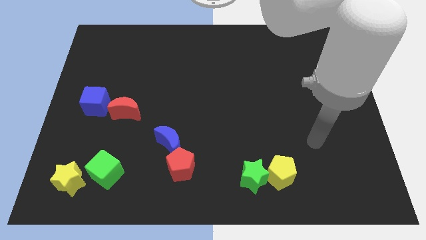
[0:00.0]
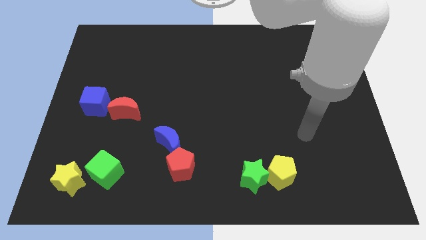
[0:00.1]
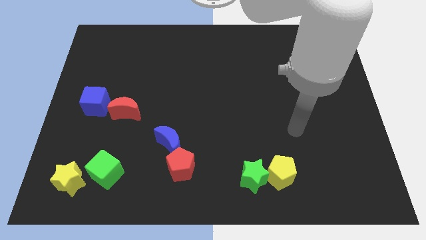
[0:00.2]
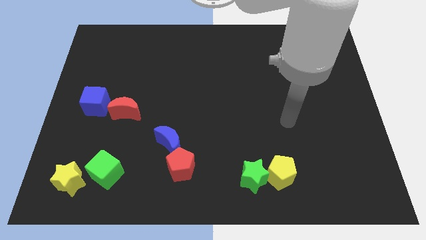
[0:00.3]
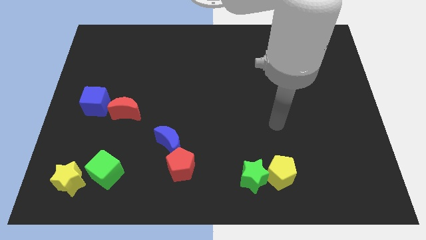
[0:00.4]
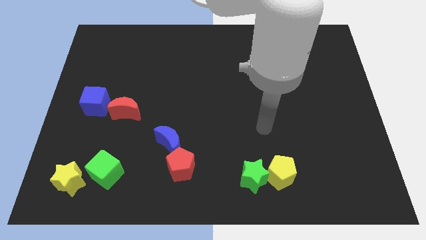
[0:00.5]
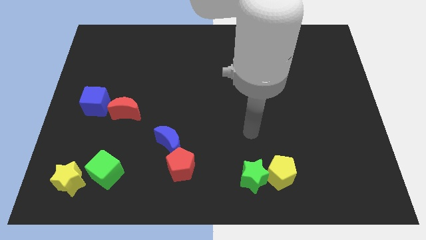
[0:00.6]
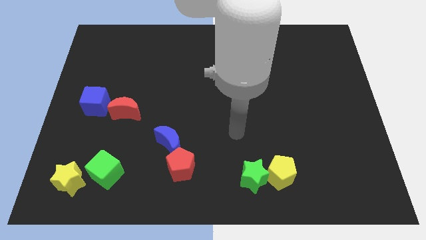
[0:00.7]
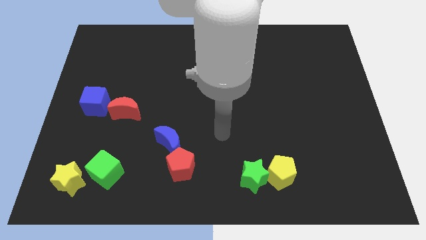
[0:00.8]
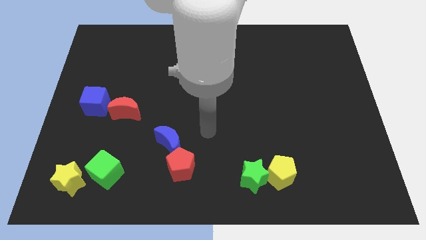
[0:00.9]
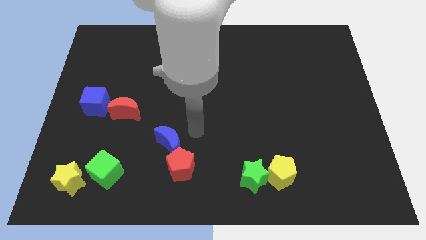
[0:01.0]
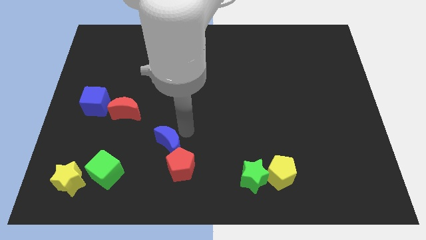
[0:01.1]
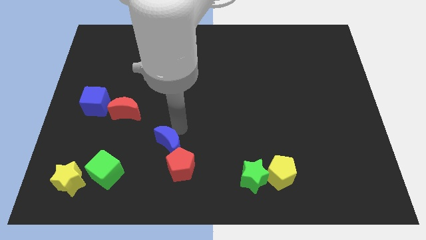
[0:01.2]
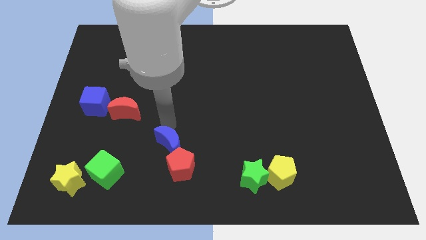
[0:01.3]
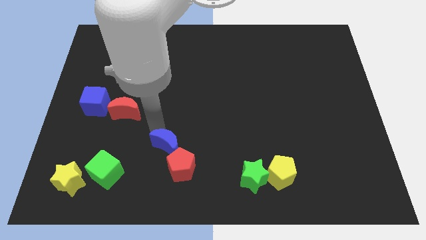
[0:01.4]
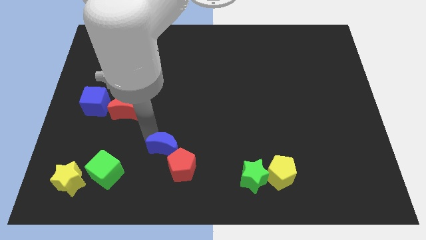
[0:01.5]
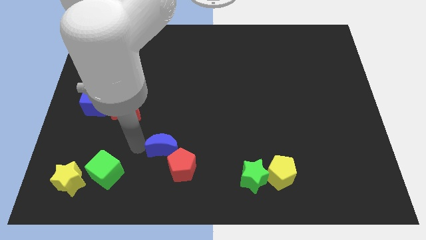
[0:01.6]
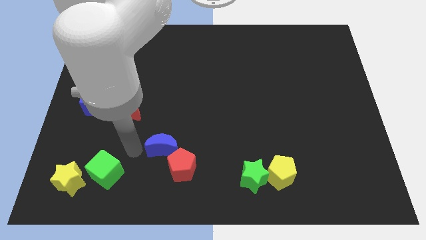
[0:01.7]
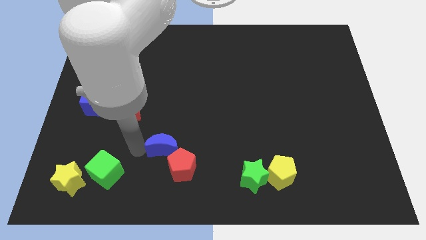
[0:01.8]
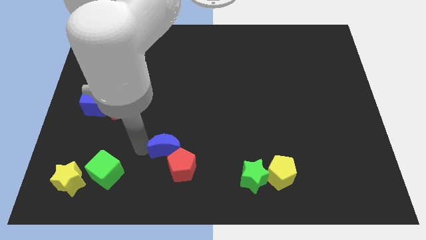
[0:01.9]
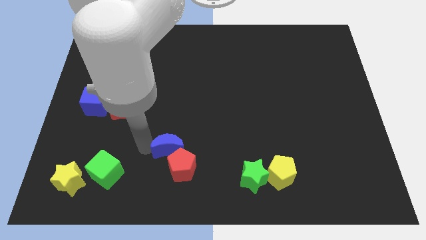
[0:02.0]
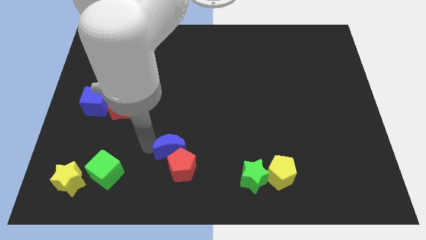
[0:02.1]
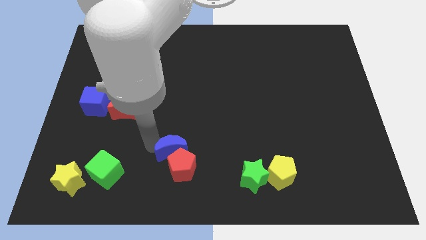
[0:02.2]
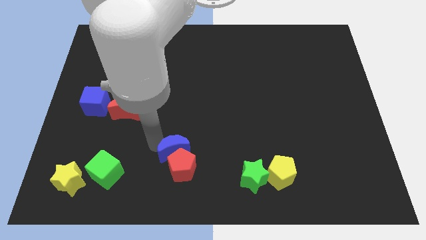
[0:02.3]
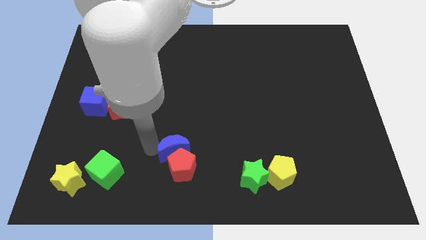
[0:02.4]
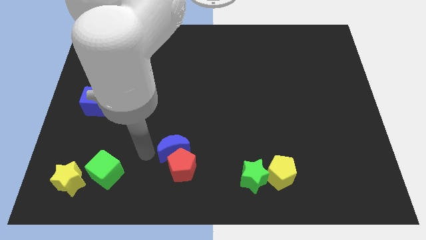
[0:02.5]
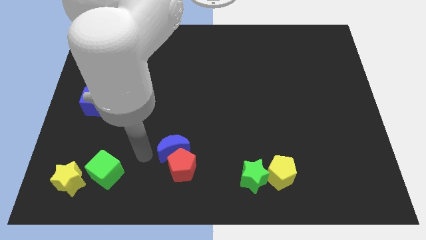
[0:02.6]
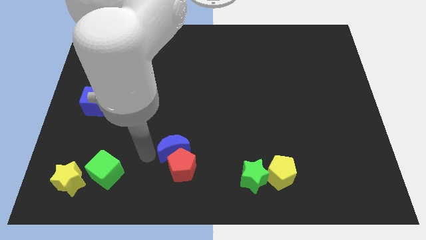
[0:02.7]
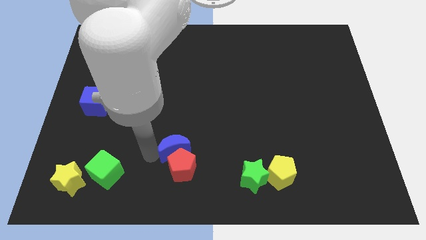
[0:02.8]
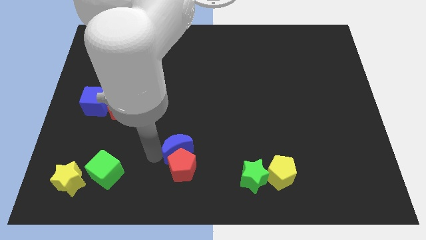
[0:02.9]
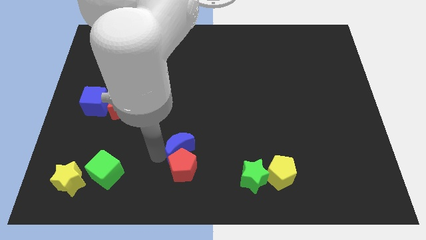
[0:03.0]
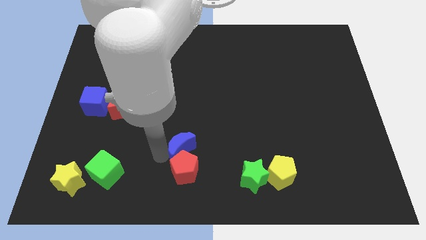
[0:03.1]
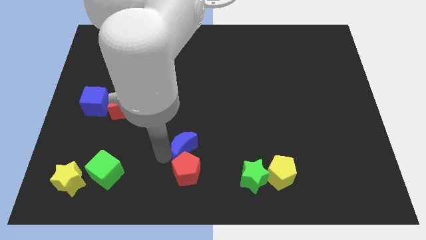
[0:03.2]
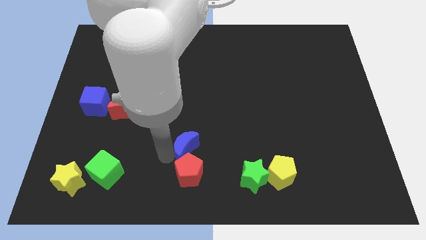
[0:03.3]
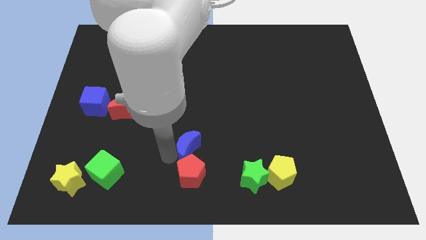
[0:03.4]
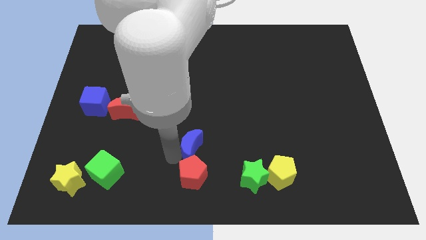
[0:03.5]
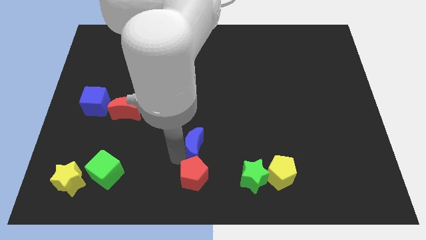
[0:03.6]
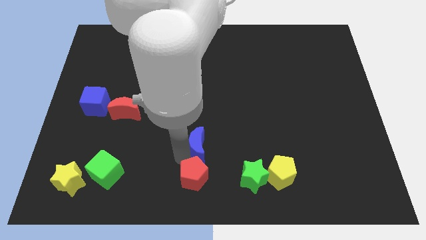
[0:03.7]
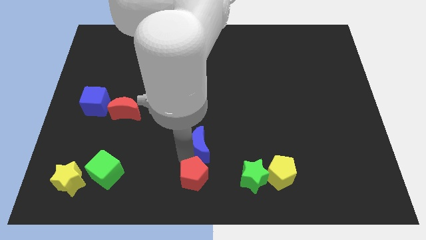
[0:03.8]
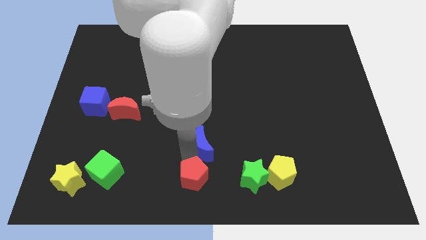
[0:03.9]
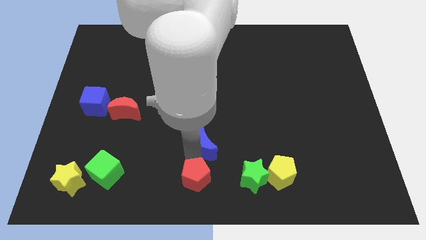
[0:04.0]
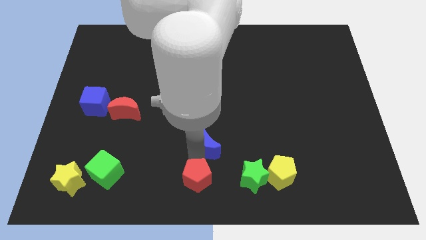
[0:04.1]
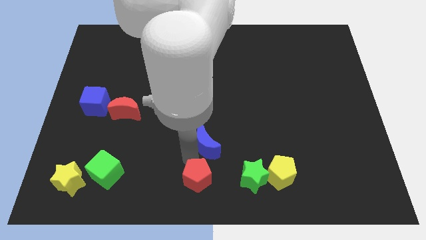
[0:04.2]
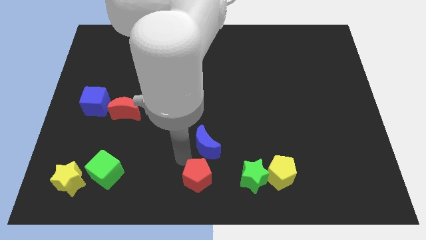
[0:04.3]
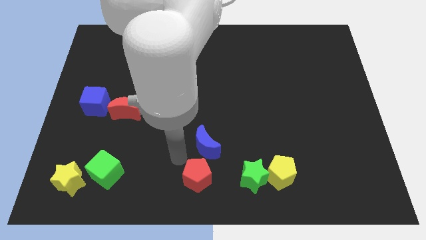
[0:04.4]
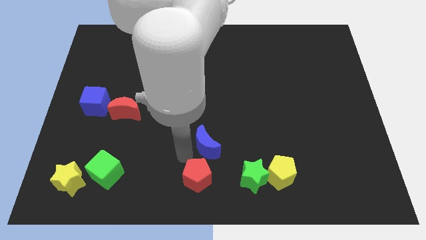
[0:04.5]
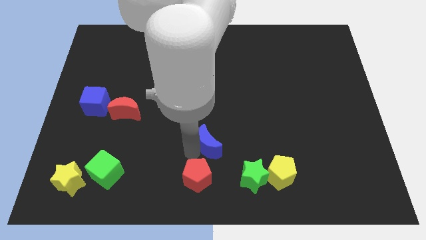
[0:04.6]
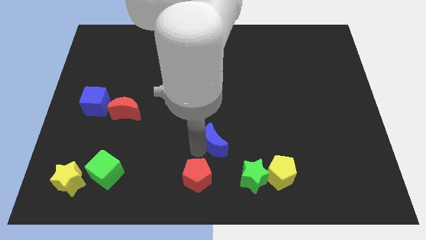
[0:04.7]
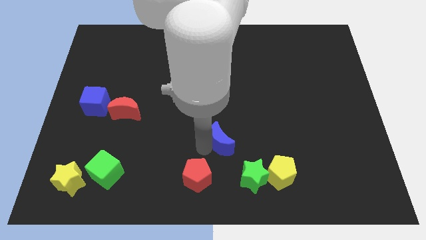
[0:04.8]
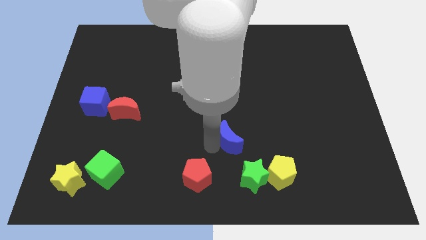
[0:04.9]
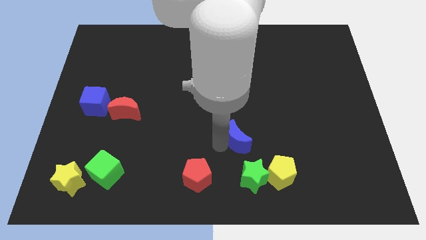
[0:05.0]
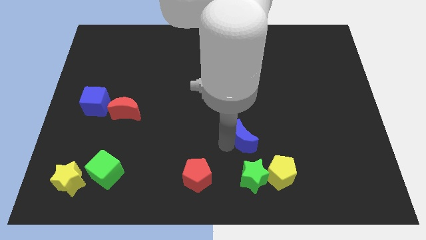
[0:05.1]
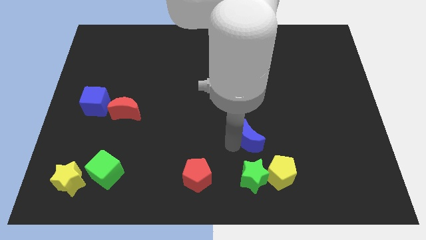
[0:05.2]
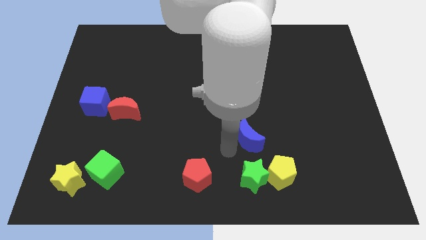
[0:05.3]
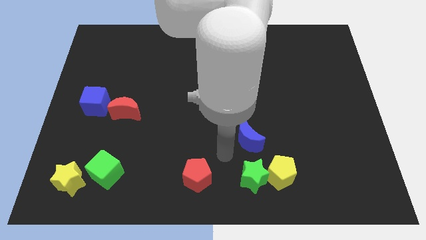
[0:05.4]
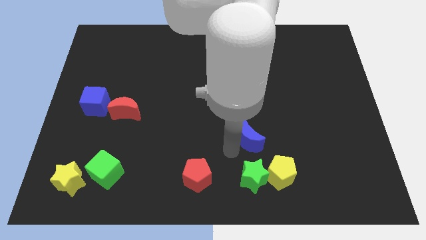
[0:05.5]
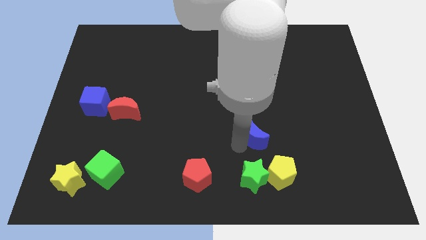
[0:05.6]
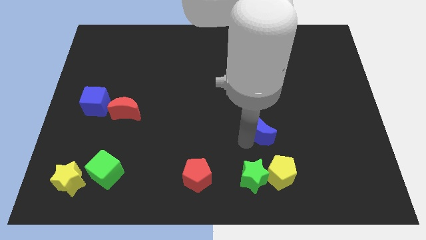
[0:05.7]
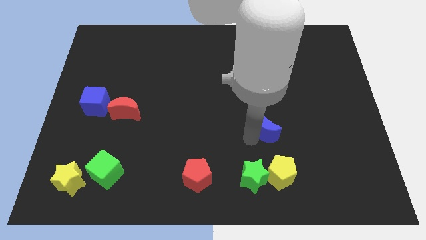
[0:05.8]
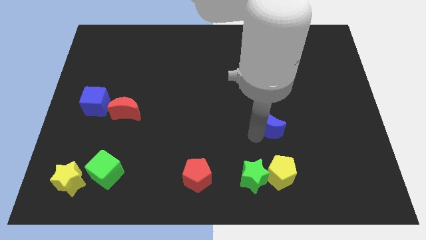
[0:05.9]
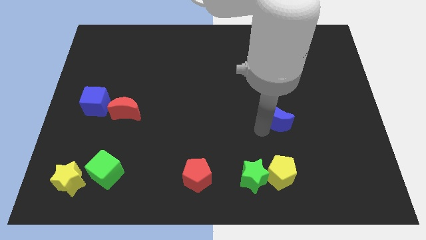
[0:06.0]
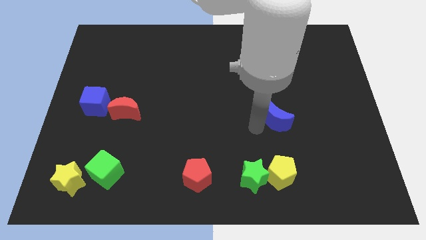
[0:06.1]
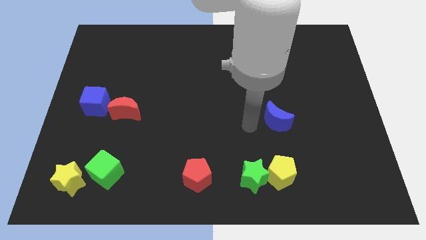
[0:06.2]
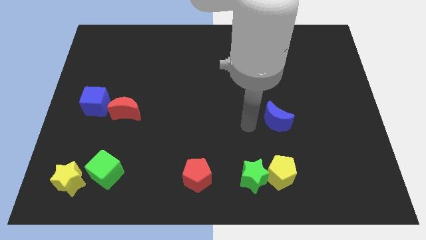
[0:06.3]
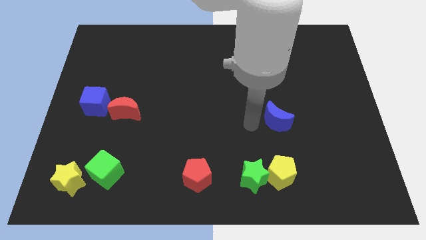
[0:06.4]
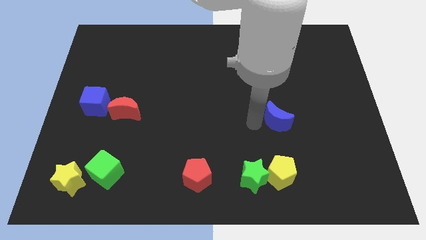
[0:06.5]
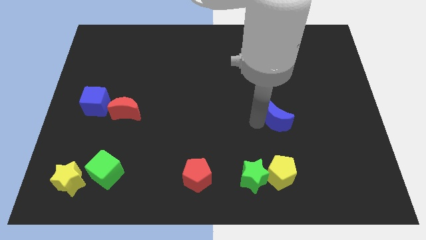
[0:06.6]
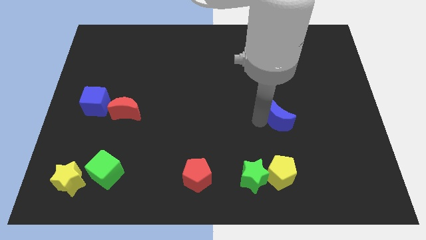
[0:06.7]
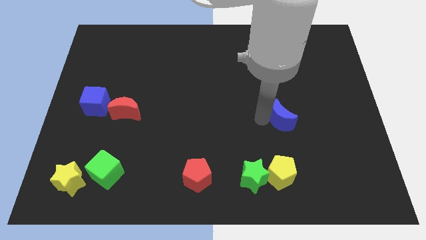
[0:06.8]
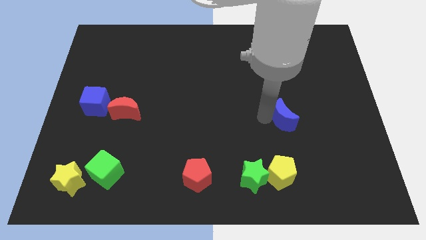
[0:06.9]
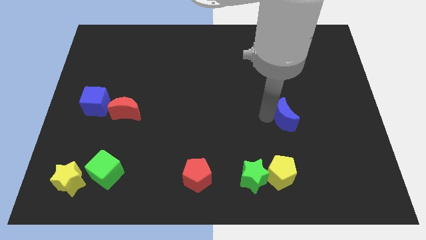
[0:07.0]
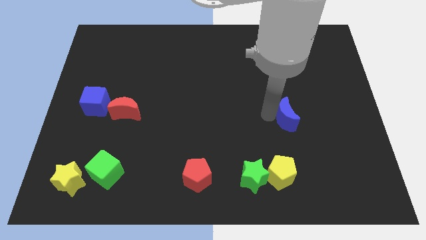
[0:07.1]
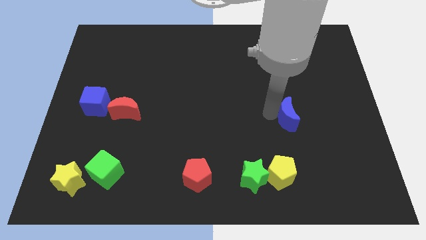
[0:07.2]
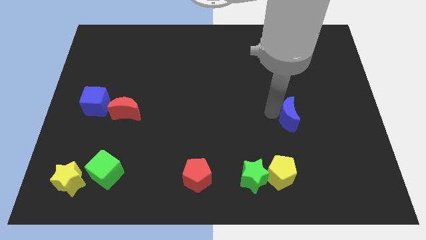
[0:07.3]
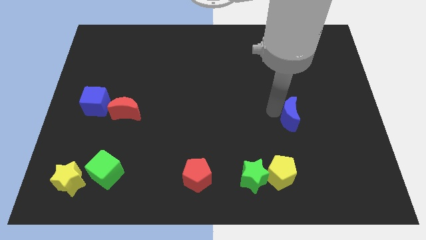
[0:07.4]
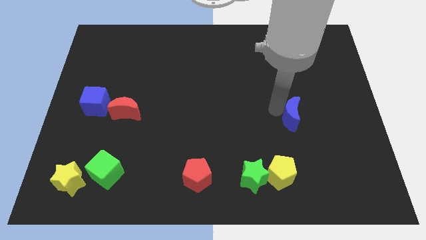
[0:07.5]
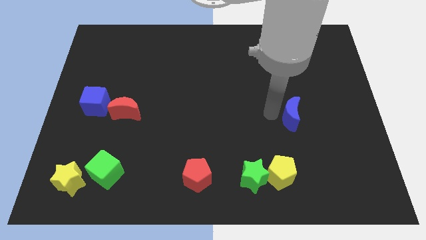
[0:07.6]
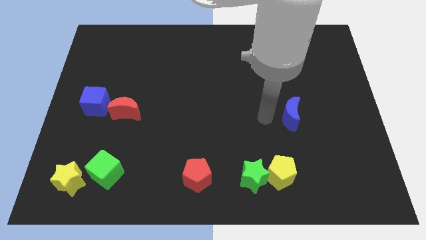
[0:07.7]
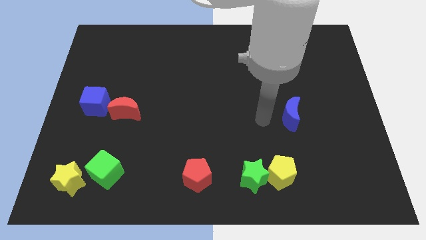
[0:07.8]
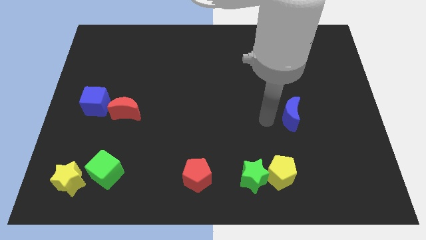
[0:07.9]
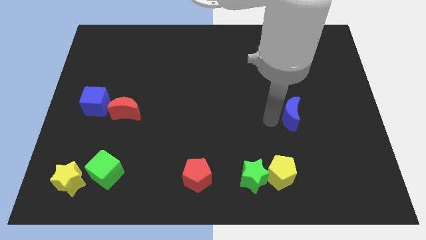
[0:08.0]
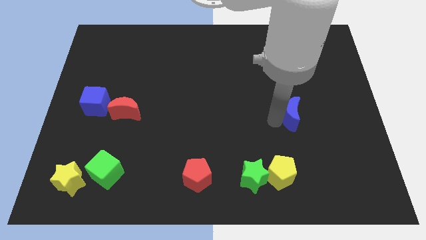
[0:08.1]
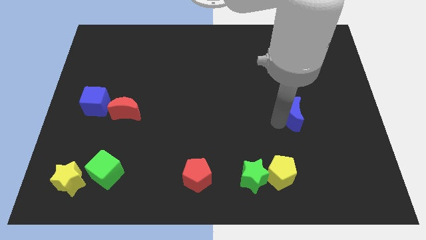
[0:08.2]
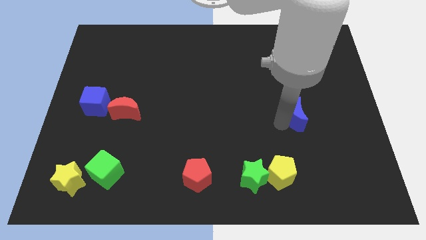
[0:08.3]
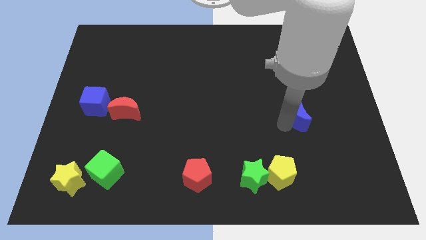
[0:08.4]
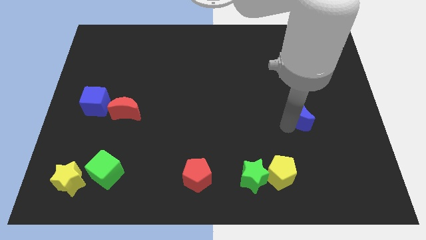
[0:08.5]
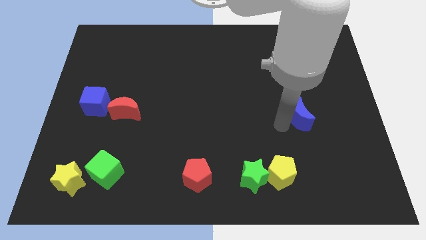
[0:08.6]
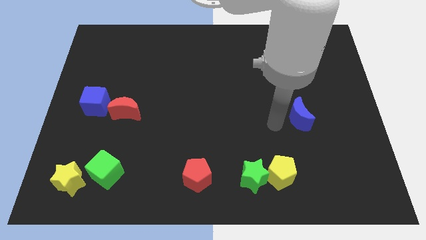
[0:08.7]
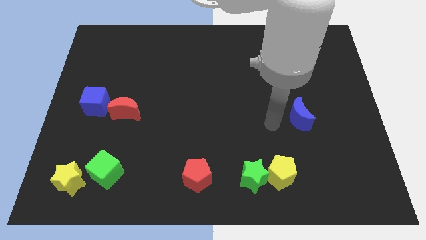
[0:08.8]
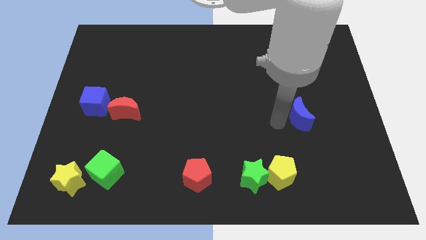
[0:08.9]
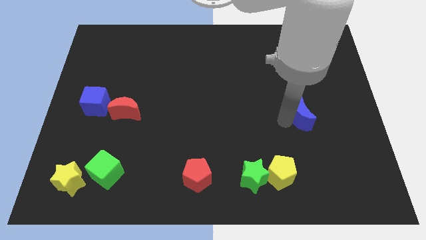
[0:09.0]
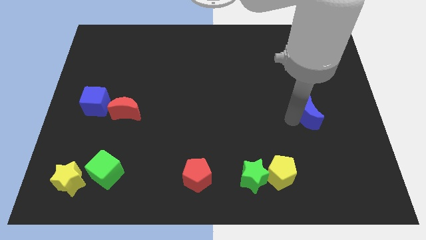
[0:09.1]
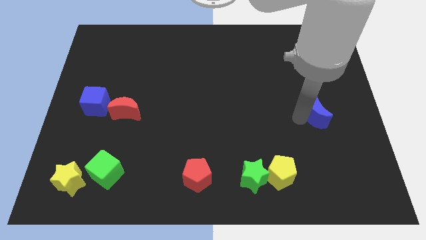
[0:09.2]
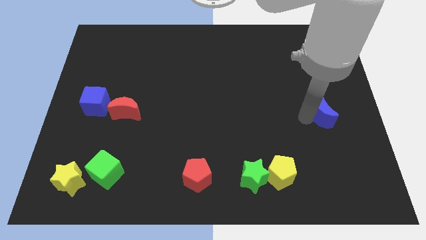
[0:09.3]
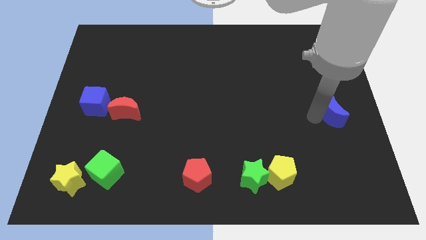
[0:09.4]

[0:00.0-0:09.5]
put the blue moon to the right side
